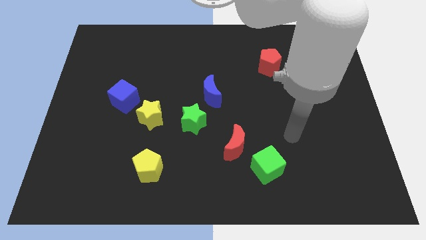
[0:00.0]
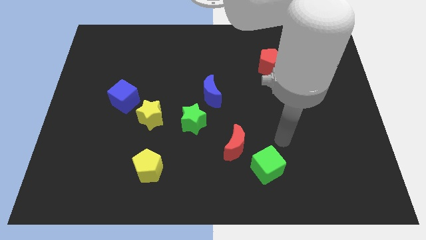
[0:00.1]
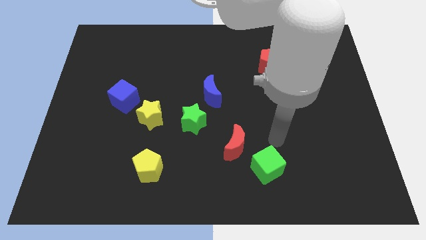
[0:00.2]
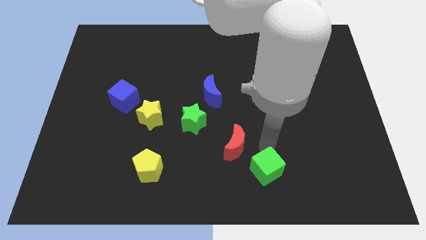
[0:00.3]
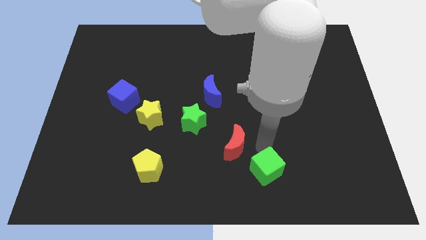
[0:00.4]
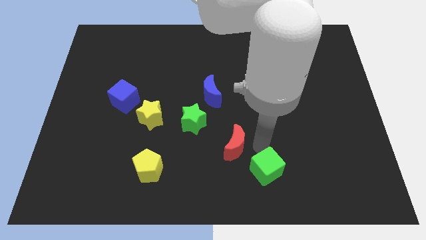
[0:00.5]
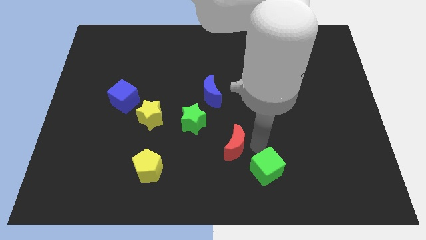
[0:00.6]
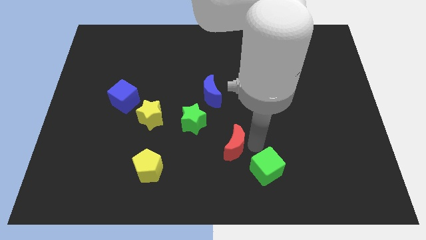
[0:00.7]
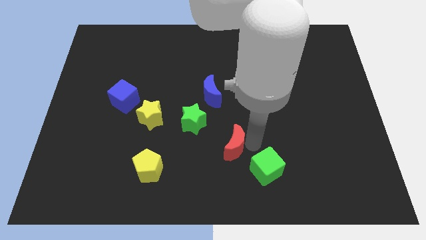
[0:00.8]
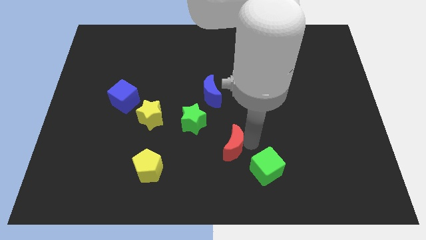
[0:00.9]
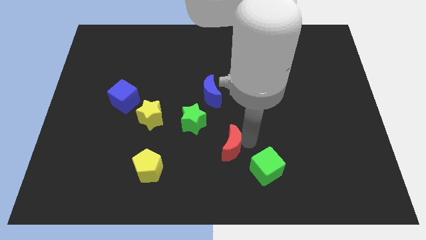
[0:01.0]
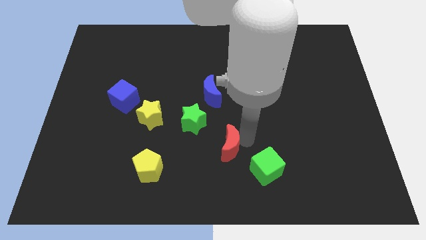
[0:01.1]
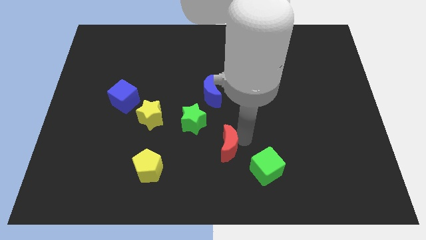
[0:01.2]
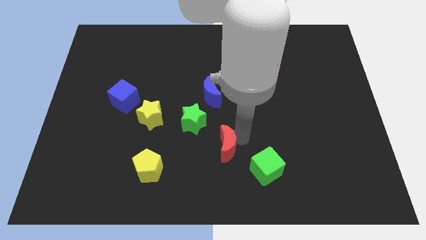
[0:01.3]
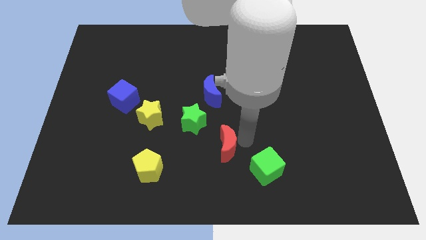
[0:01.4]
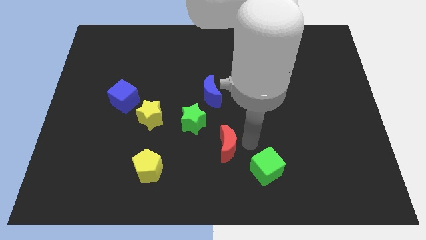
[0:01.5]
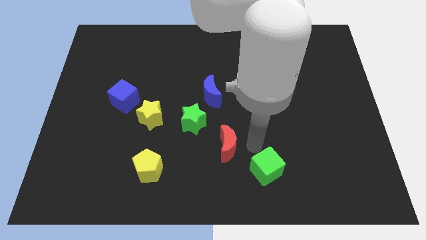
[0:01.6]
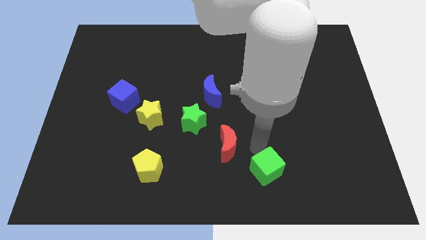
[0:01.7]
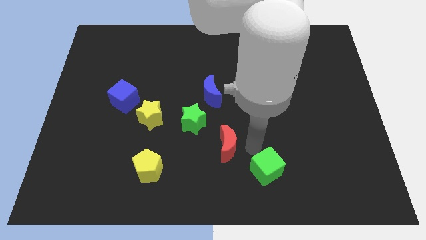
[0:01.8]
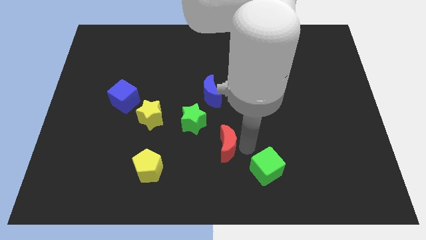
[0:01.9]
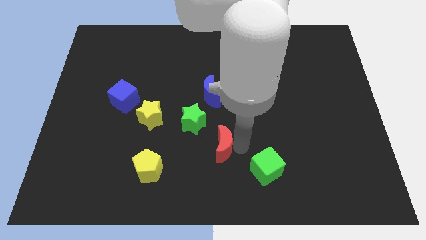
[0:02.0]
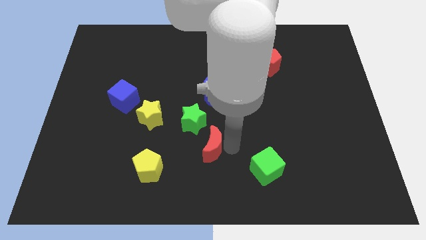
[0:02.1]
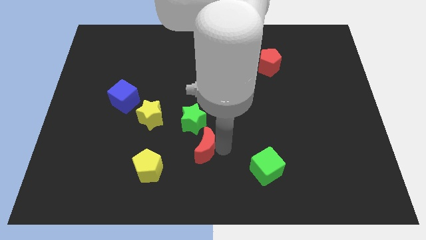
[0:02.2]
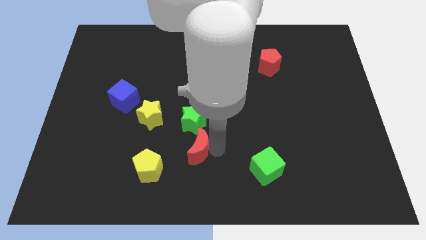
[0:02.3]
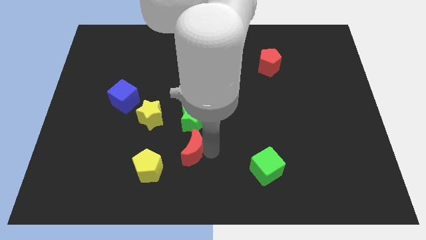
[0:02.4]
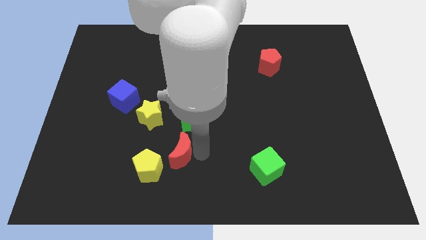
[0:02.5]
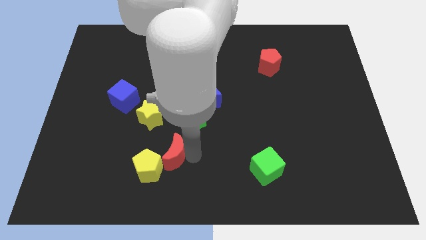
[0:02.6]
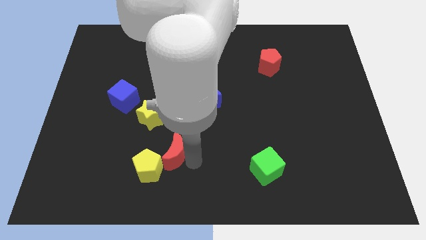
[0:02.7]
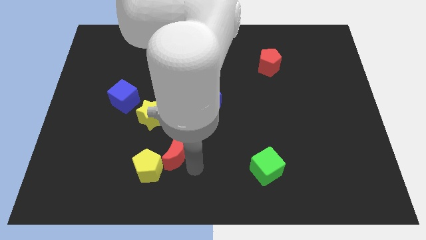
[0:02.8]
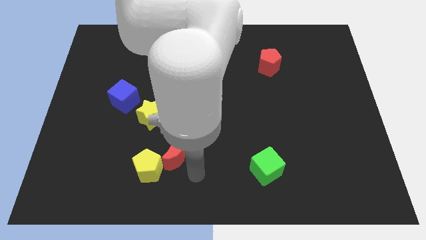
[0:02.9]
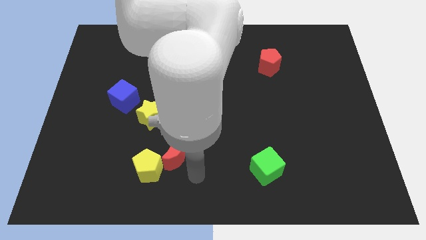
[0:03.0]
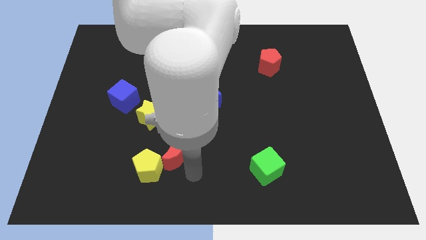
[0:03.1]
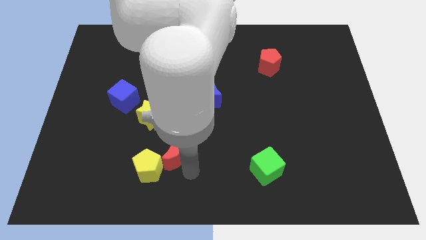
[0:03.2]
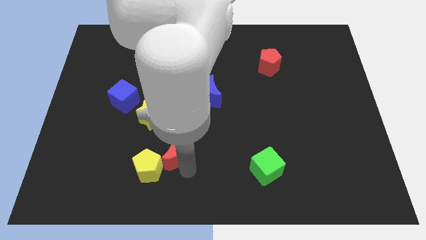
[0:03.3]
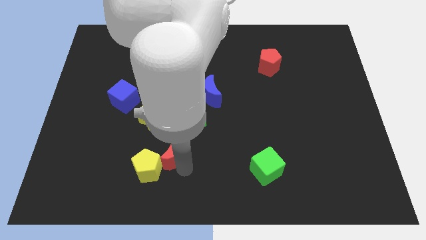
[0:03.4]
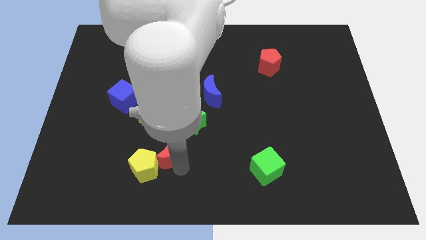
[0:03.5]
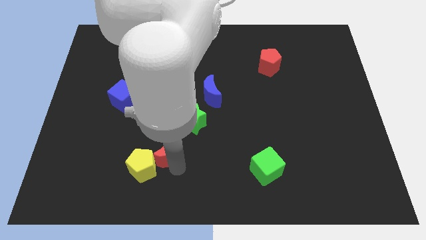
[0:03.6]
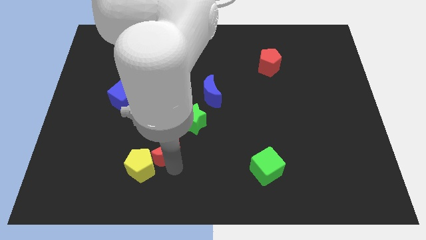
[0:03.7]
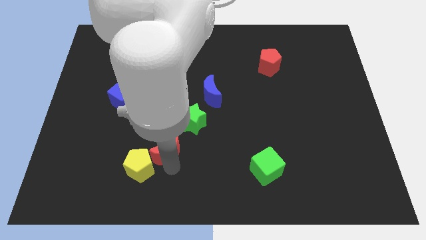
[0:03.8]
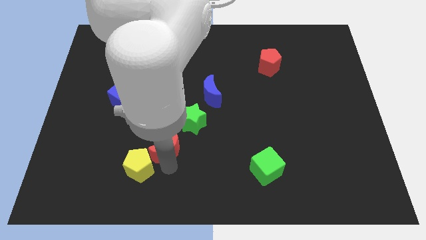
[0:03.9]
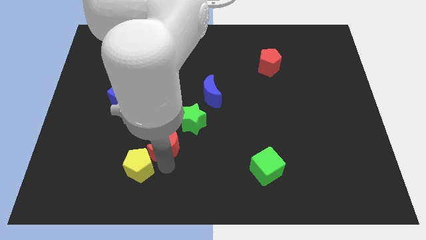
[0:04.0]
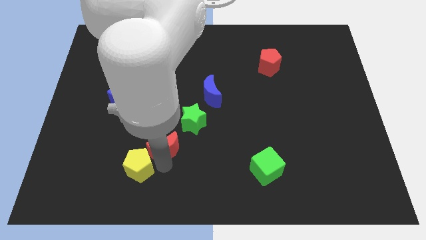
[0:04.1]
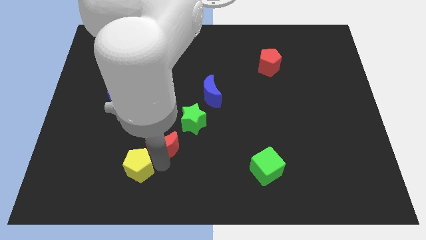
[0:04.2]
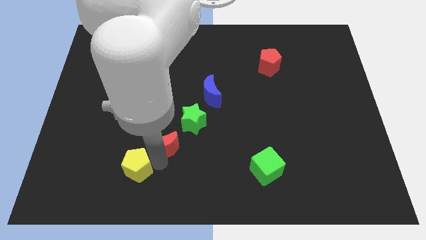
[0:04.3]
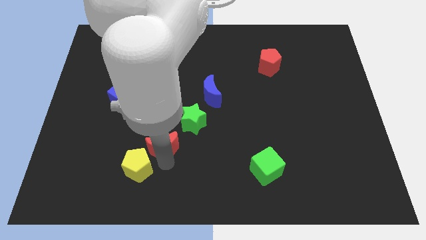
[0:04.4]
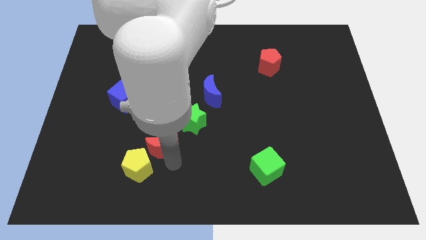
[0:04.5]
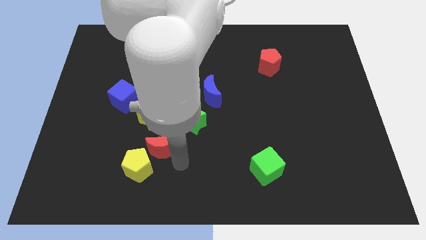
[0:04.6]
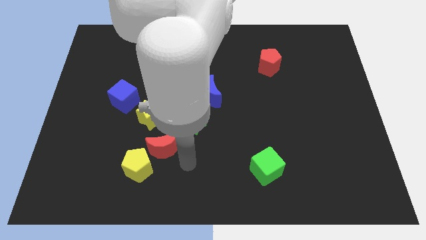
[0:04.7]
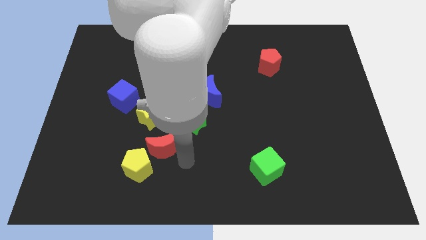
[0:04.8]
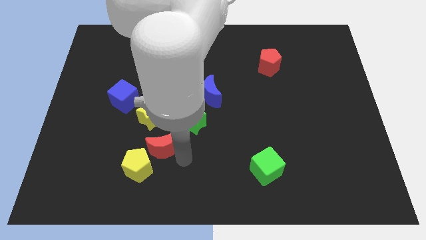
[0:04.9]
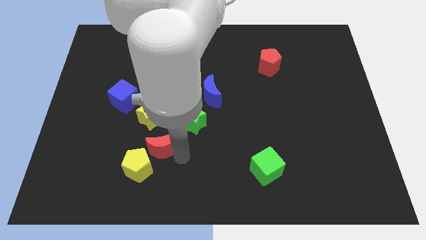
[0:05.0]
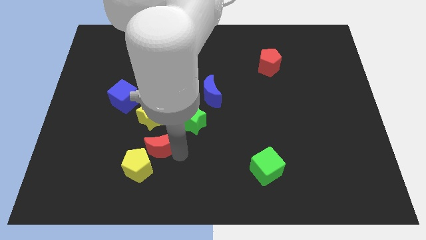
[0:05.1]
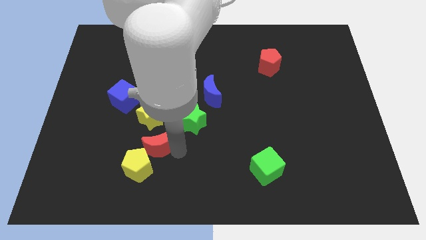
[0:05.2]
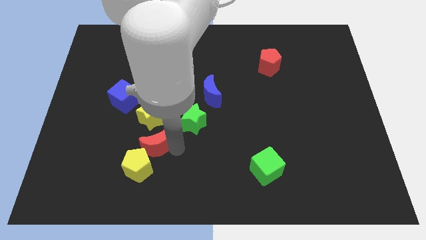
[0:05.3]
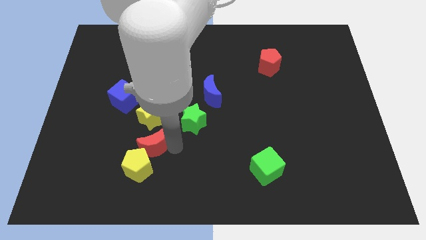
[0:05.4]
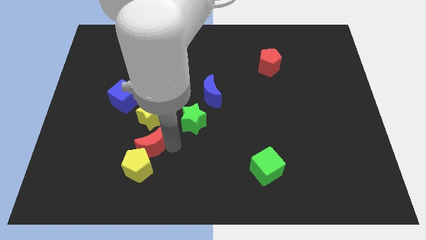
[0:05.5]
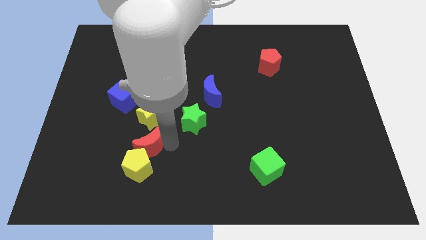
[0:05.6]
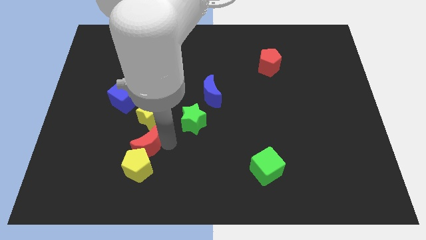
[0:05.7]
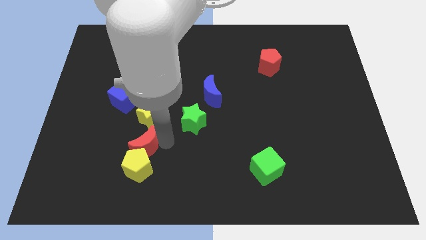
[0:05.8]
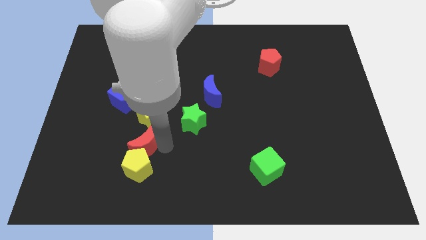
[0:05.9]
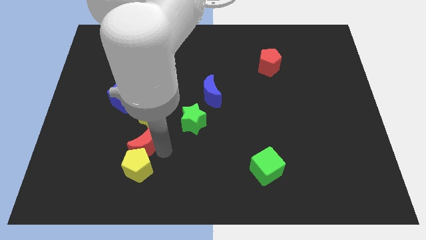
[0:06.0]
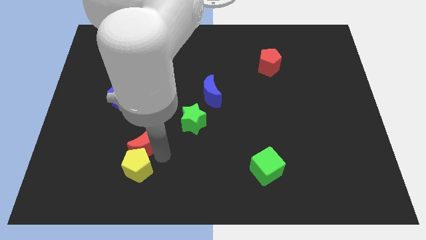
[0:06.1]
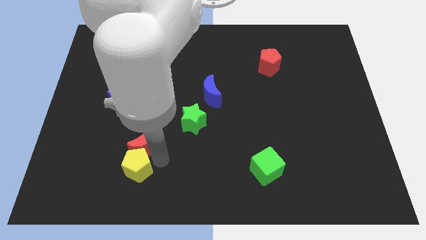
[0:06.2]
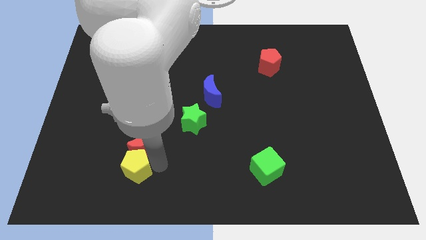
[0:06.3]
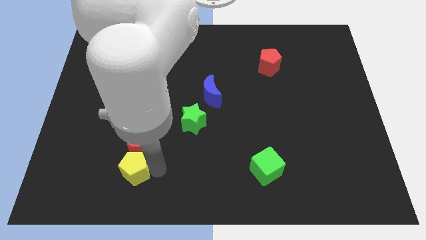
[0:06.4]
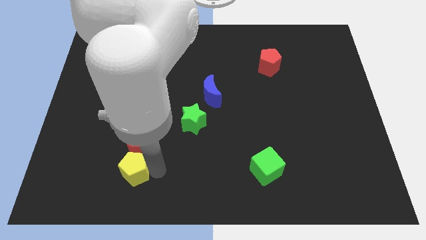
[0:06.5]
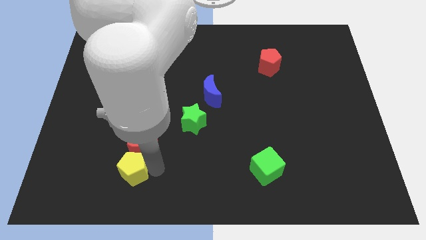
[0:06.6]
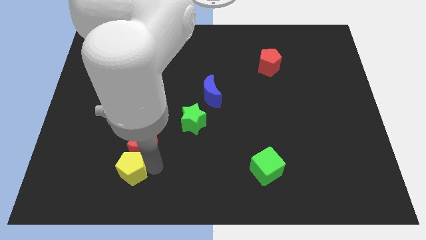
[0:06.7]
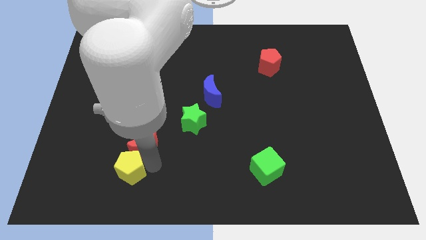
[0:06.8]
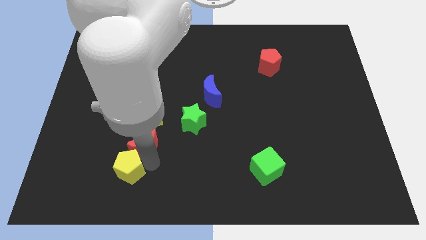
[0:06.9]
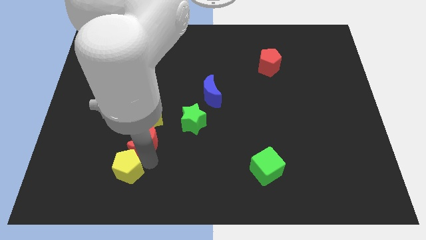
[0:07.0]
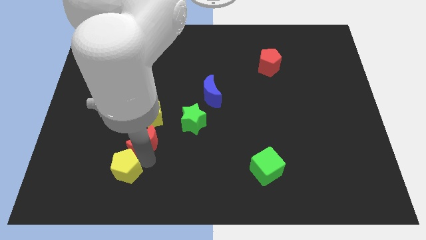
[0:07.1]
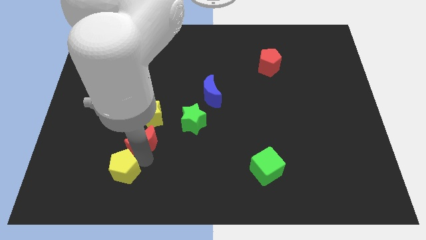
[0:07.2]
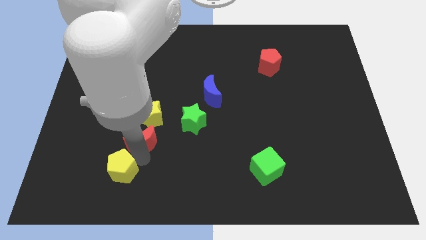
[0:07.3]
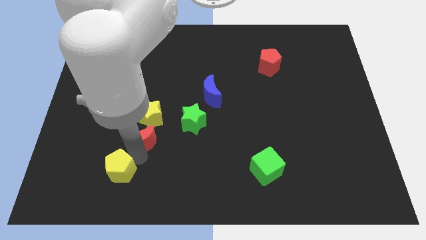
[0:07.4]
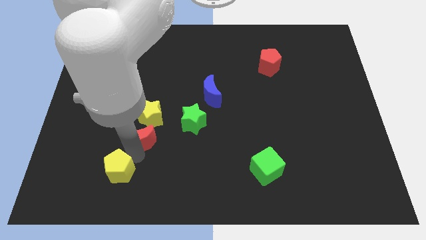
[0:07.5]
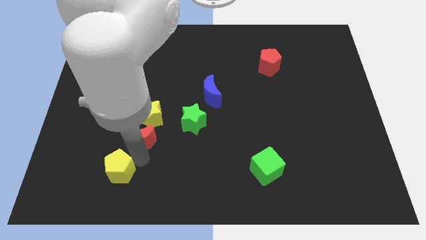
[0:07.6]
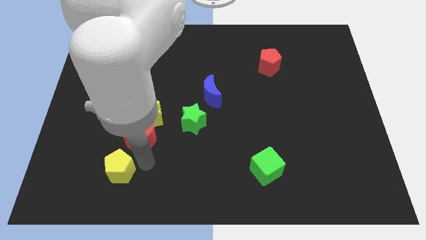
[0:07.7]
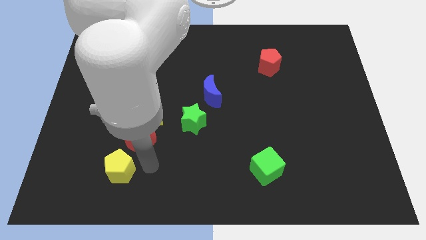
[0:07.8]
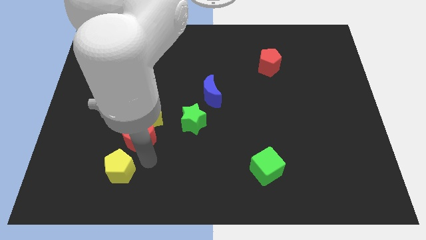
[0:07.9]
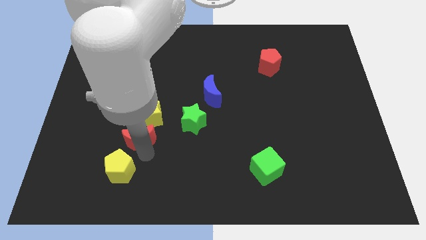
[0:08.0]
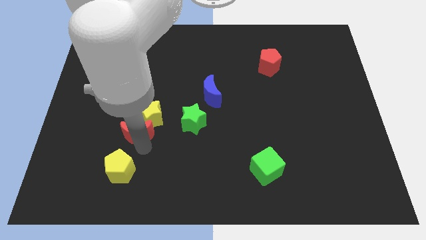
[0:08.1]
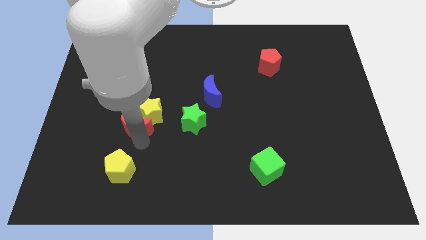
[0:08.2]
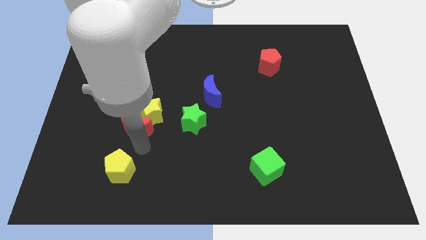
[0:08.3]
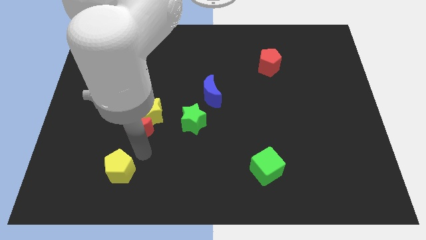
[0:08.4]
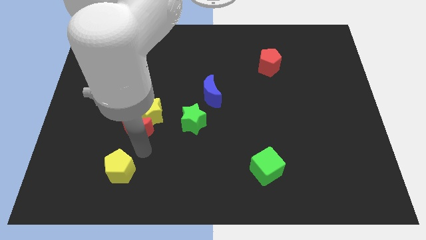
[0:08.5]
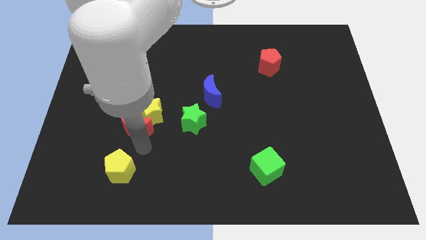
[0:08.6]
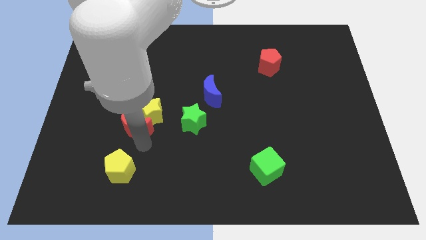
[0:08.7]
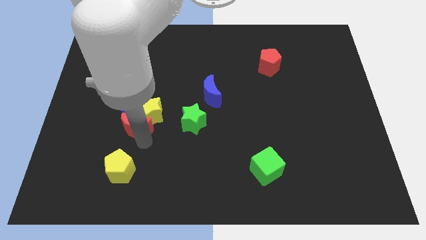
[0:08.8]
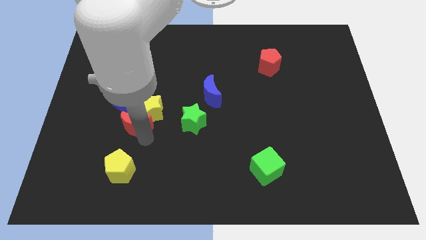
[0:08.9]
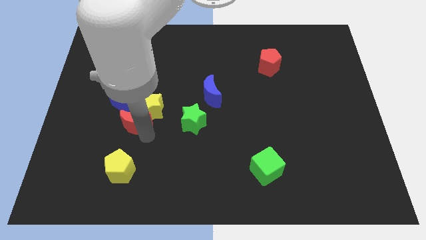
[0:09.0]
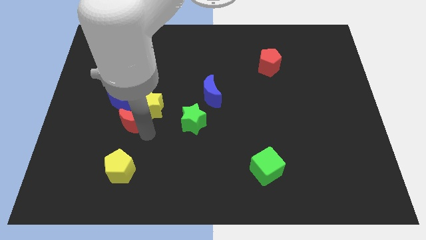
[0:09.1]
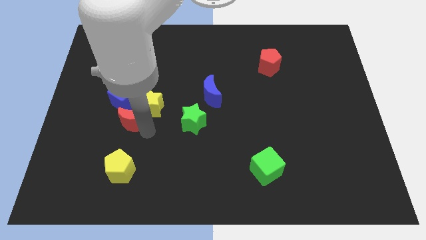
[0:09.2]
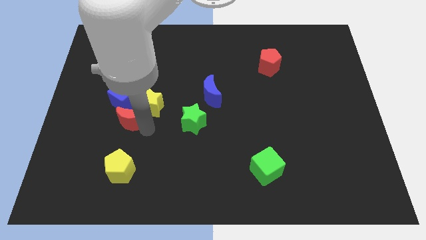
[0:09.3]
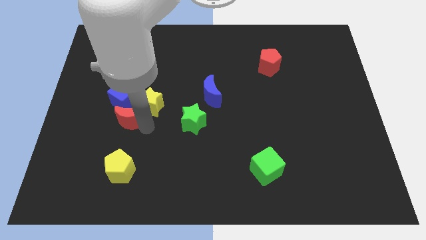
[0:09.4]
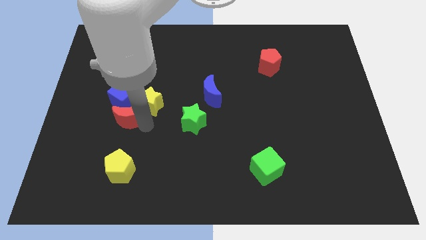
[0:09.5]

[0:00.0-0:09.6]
put the red moon to the blue cube
